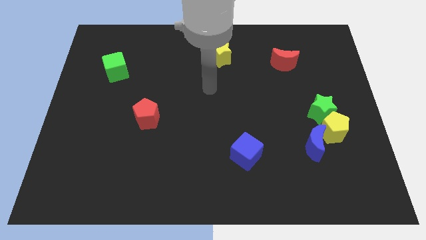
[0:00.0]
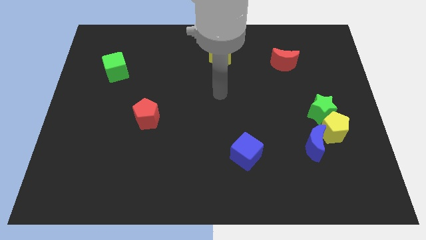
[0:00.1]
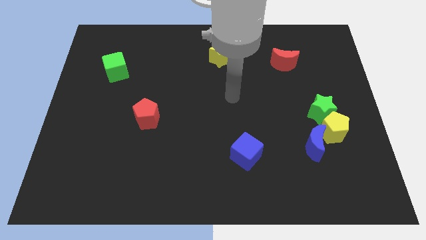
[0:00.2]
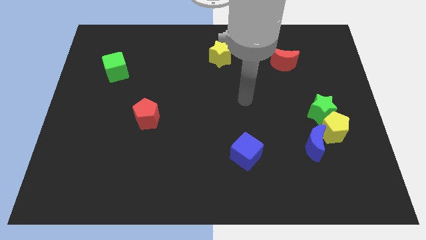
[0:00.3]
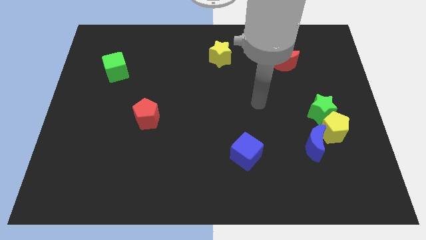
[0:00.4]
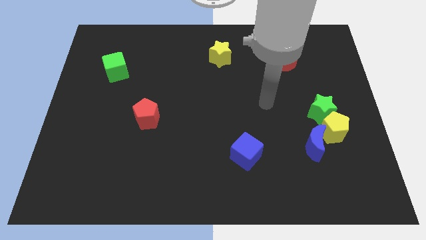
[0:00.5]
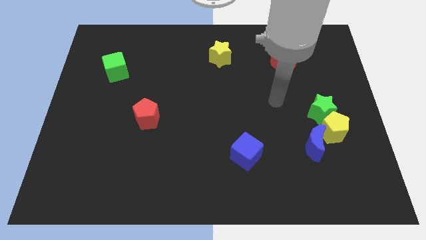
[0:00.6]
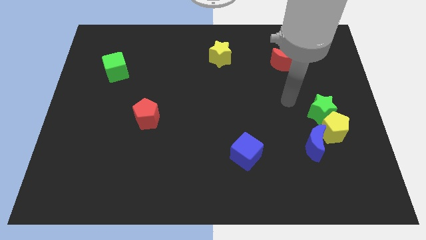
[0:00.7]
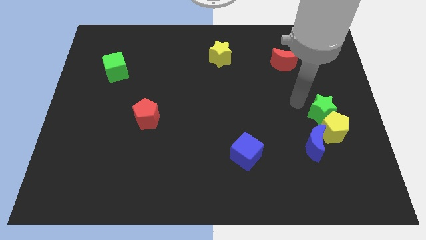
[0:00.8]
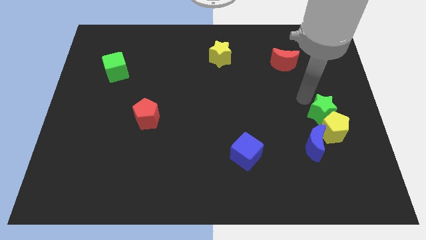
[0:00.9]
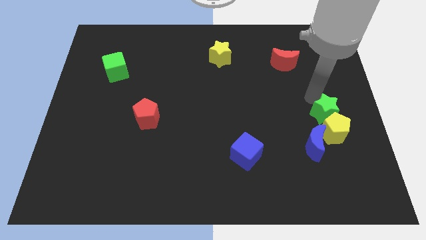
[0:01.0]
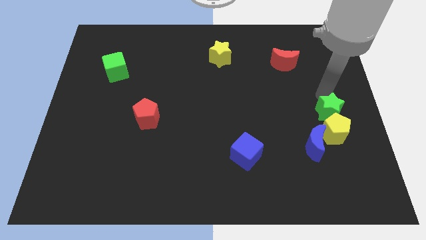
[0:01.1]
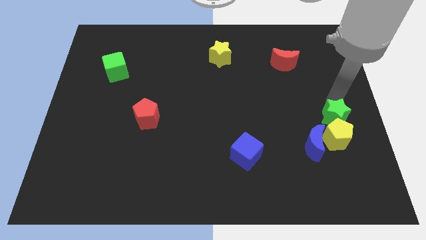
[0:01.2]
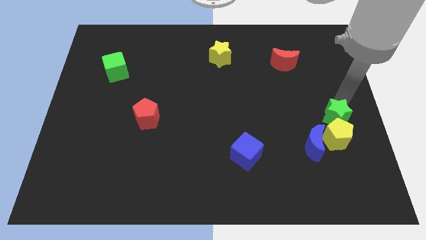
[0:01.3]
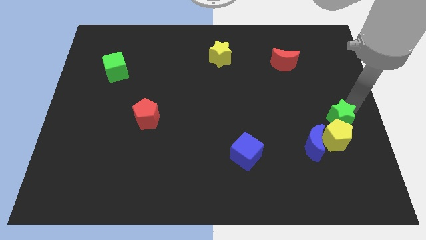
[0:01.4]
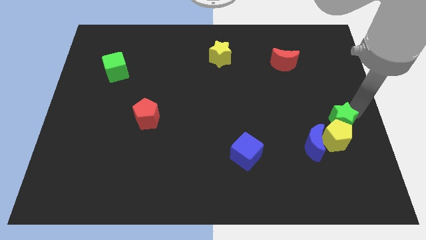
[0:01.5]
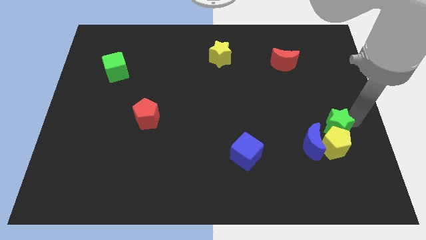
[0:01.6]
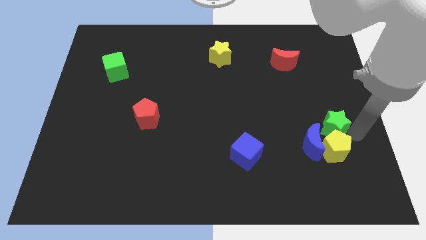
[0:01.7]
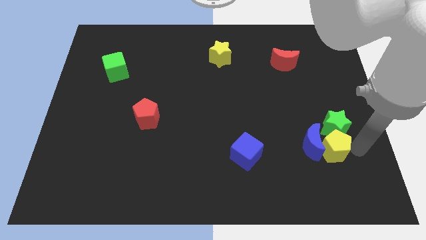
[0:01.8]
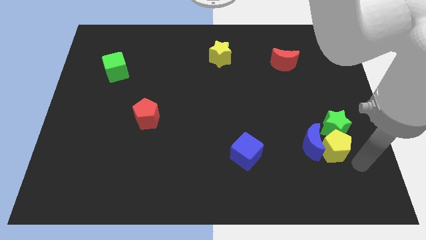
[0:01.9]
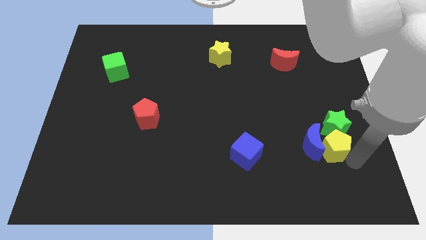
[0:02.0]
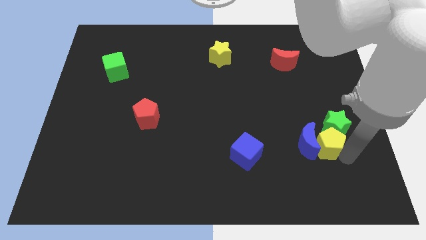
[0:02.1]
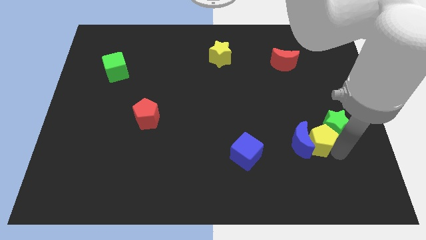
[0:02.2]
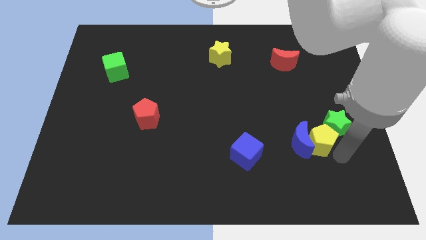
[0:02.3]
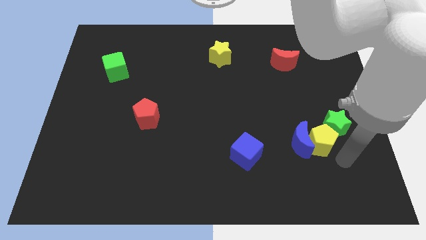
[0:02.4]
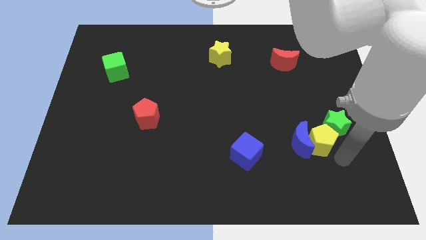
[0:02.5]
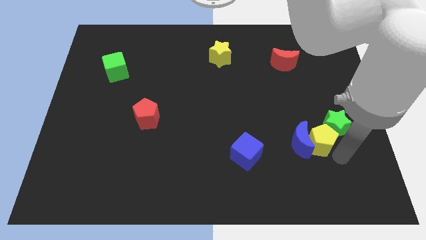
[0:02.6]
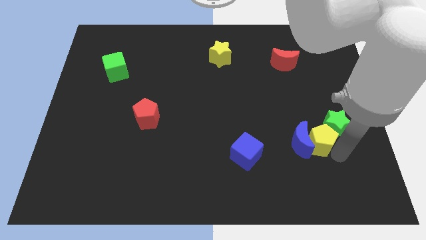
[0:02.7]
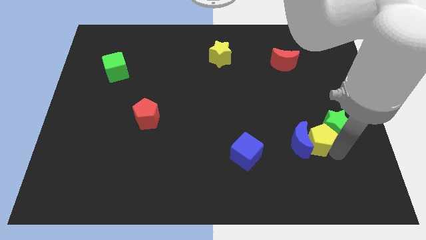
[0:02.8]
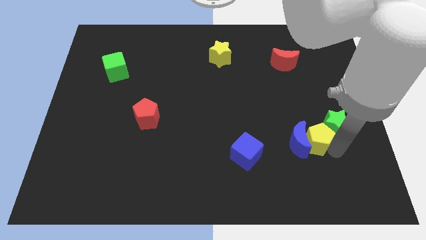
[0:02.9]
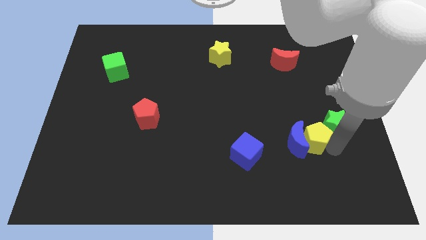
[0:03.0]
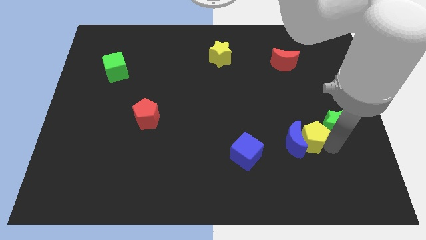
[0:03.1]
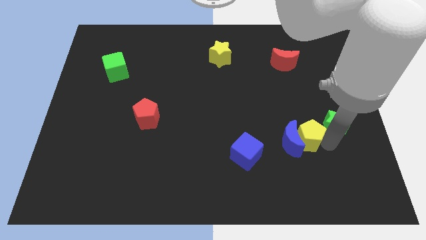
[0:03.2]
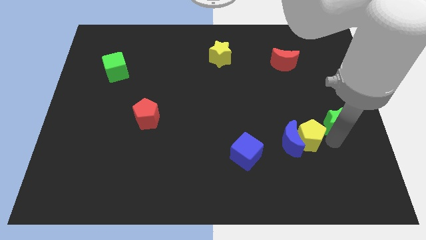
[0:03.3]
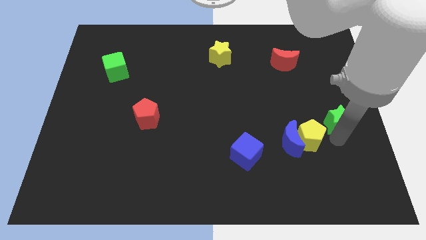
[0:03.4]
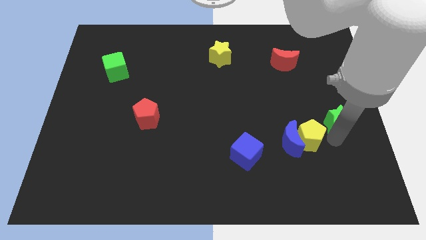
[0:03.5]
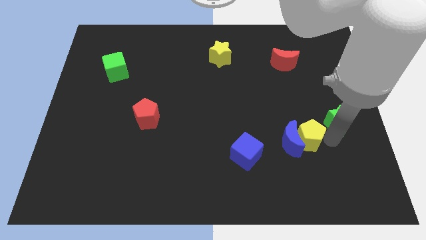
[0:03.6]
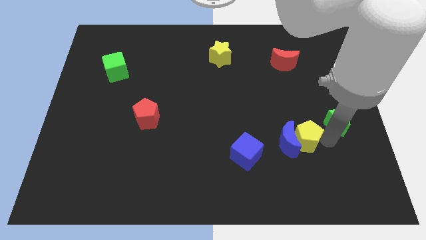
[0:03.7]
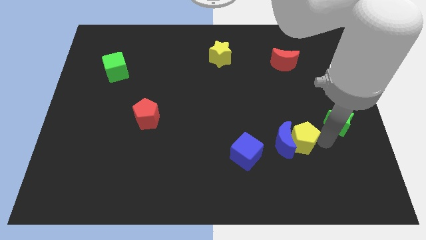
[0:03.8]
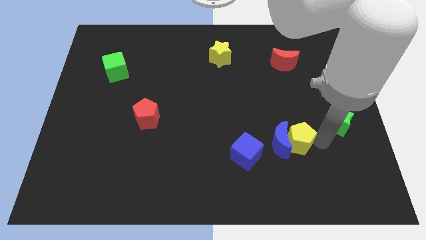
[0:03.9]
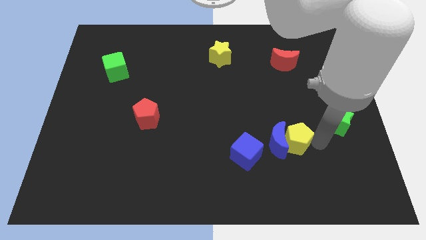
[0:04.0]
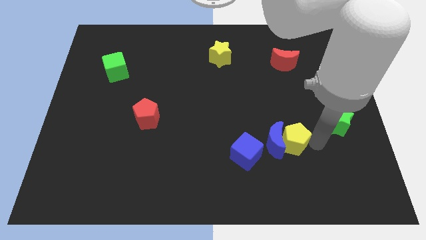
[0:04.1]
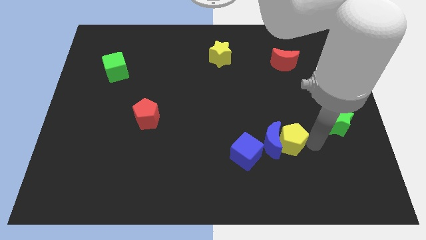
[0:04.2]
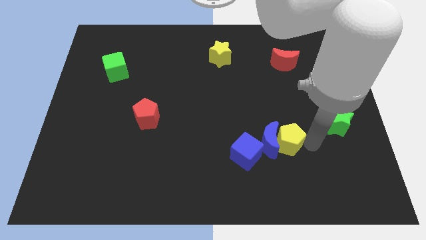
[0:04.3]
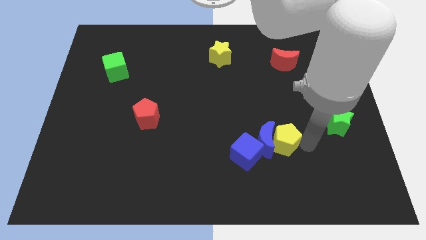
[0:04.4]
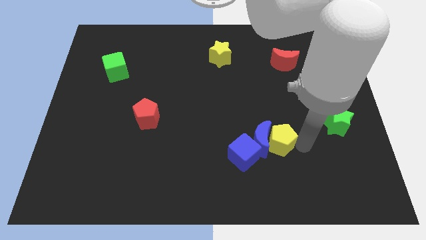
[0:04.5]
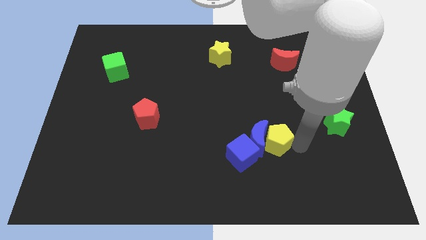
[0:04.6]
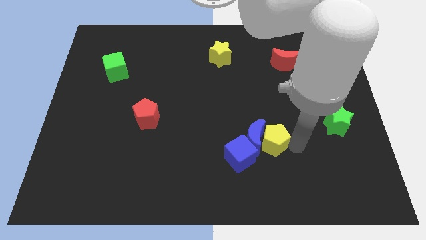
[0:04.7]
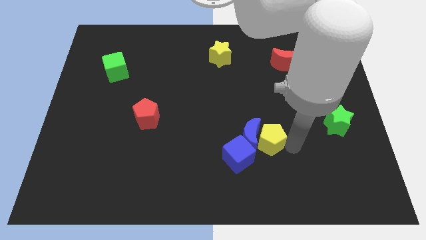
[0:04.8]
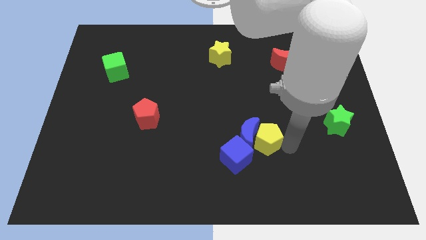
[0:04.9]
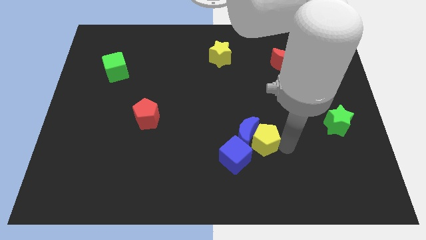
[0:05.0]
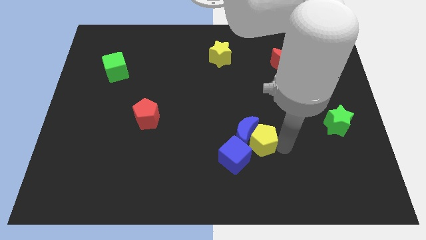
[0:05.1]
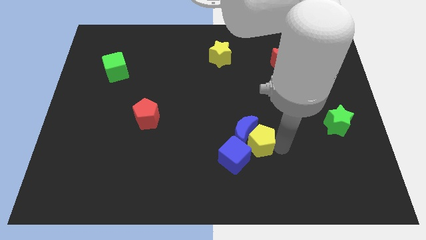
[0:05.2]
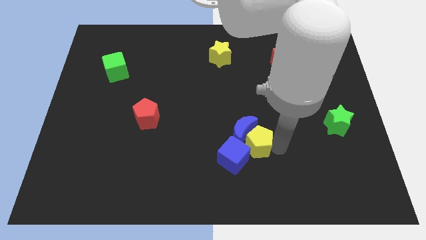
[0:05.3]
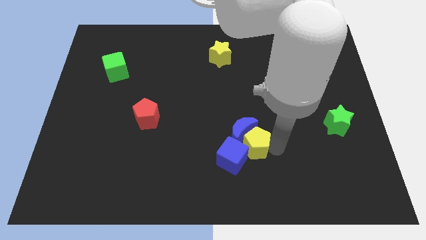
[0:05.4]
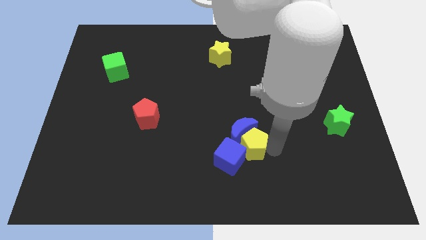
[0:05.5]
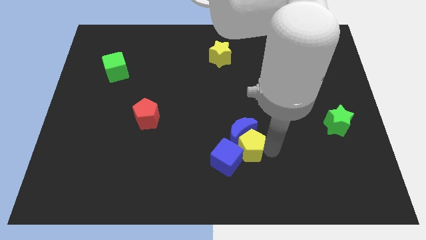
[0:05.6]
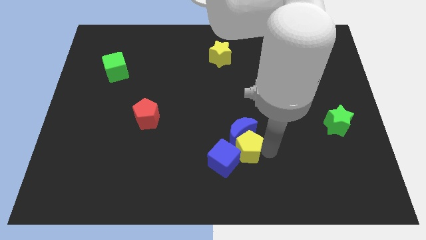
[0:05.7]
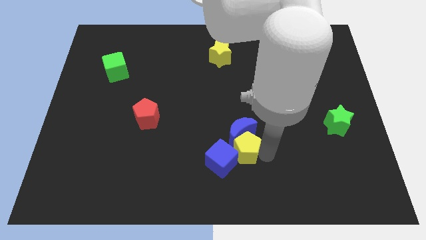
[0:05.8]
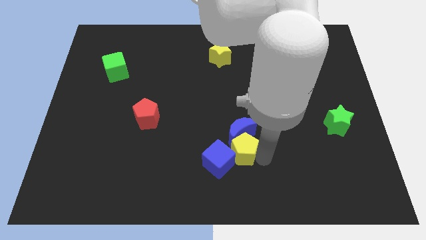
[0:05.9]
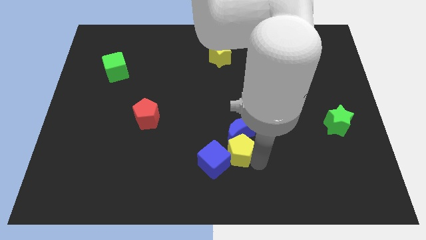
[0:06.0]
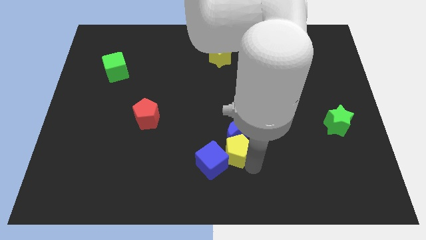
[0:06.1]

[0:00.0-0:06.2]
move the yellow pentagon to the left

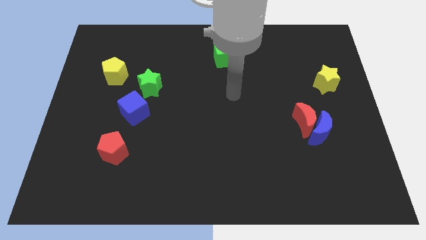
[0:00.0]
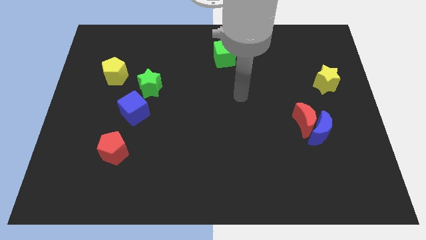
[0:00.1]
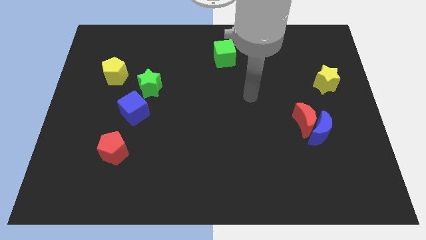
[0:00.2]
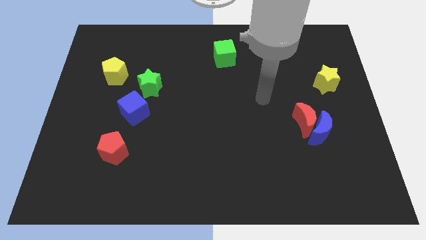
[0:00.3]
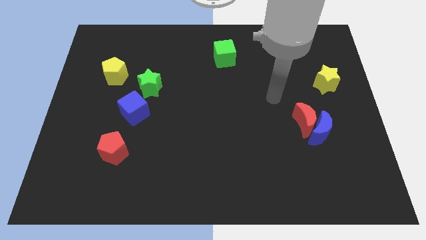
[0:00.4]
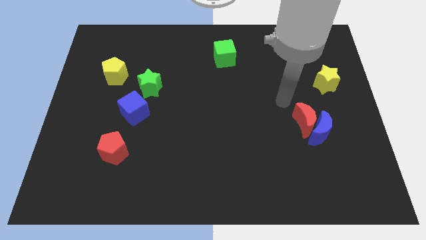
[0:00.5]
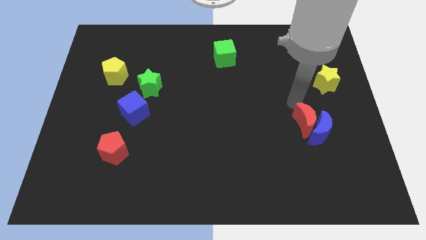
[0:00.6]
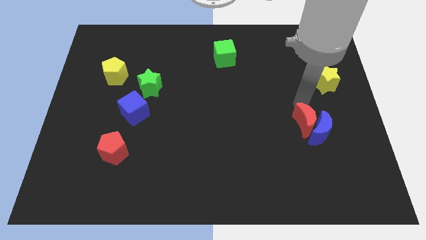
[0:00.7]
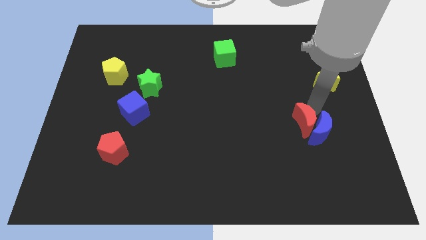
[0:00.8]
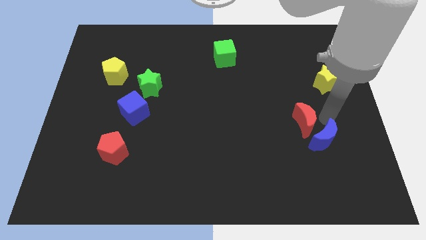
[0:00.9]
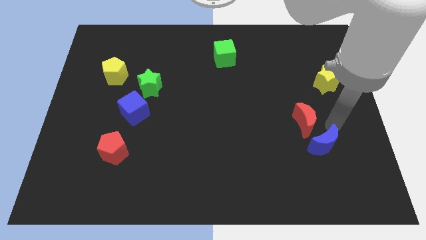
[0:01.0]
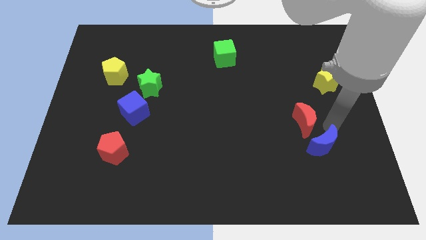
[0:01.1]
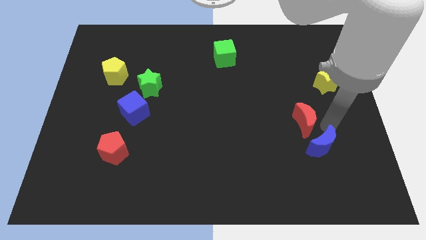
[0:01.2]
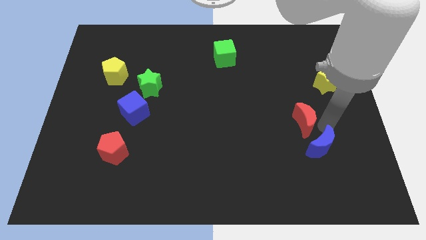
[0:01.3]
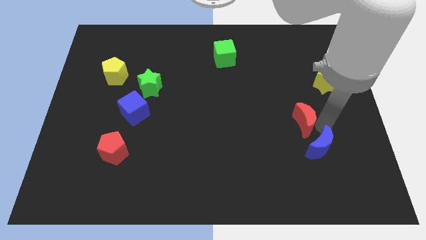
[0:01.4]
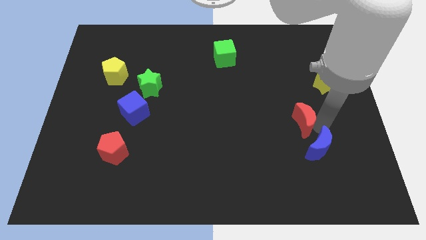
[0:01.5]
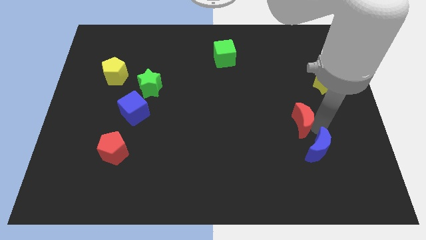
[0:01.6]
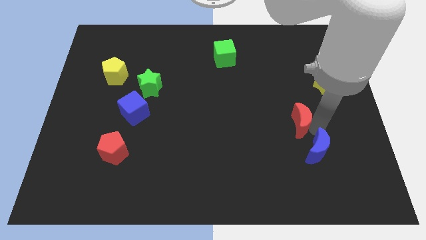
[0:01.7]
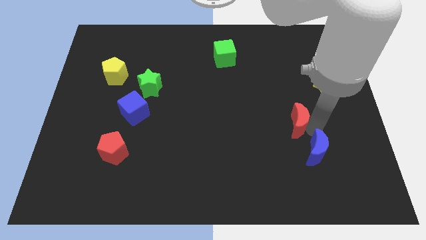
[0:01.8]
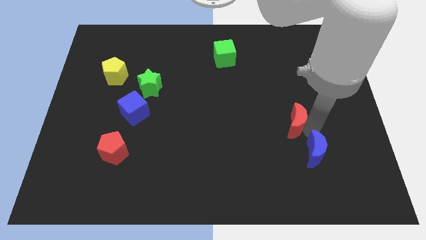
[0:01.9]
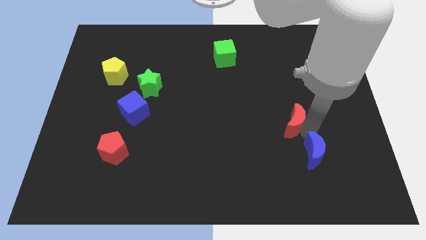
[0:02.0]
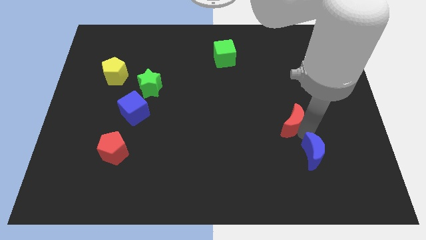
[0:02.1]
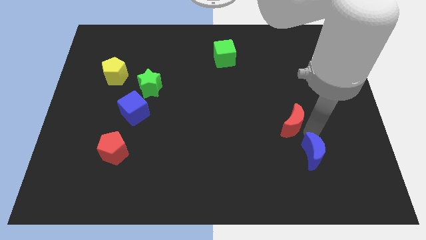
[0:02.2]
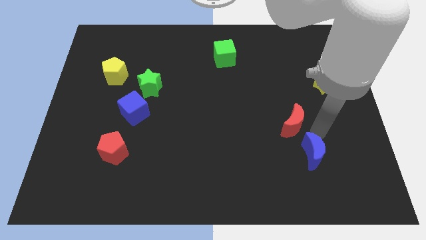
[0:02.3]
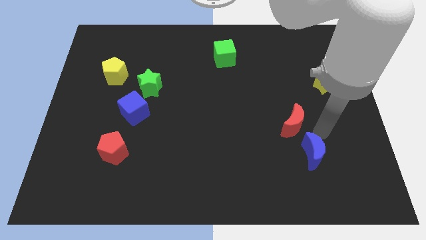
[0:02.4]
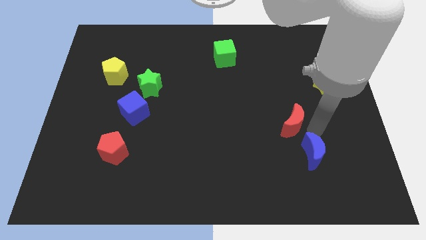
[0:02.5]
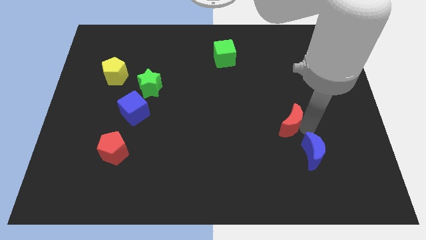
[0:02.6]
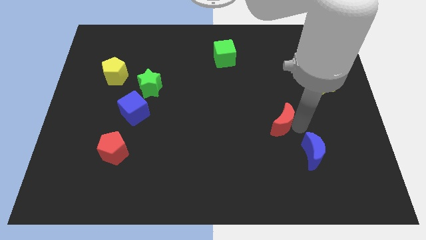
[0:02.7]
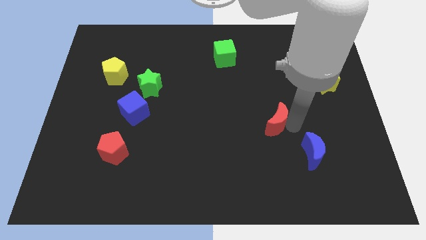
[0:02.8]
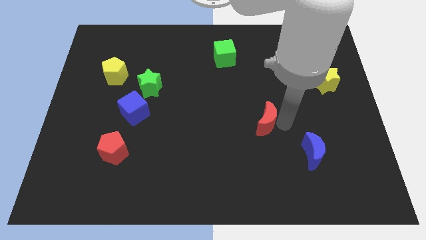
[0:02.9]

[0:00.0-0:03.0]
move the red moon to the left a little bit
